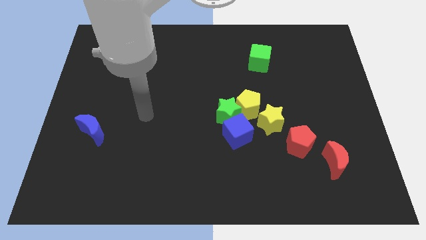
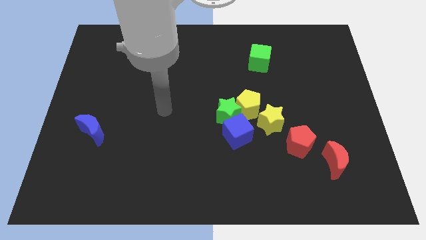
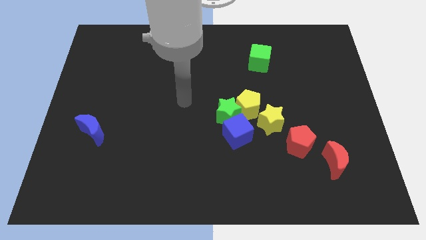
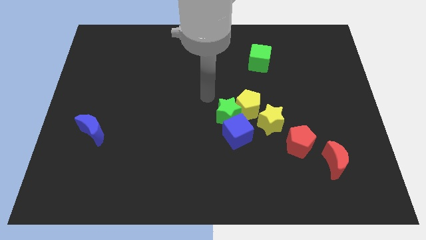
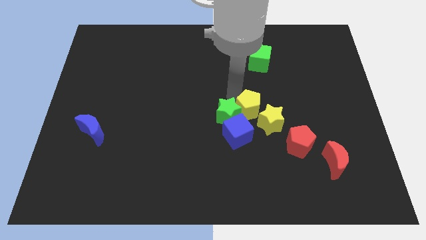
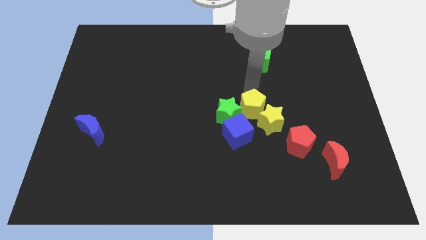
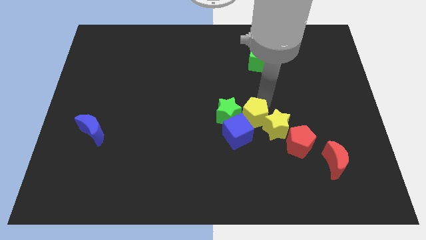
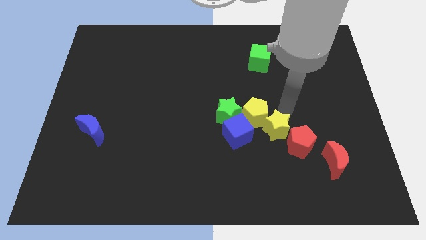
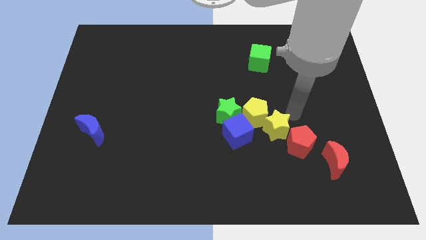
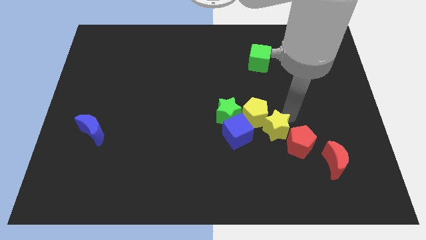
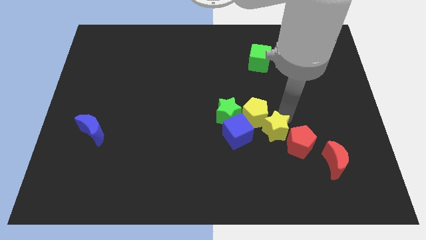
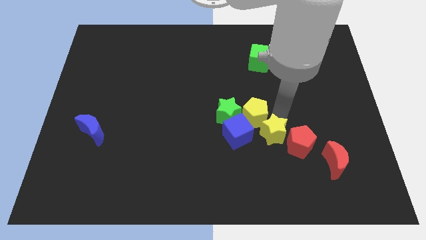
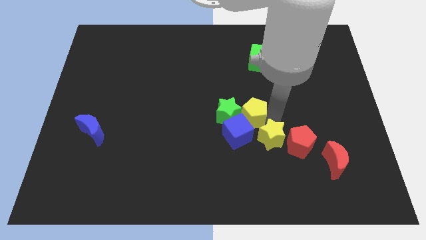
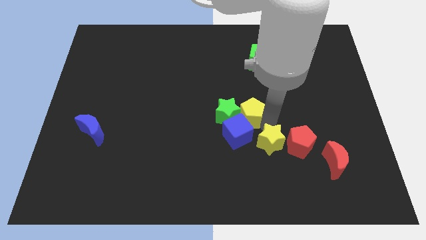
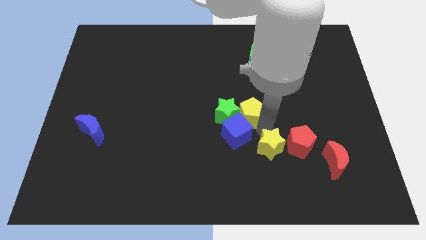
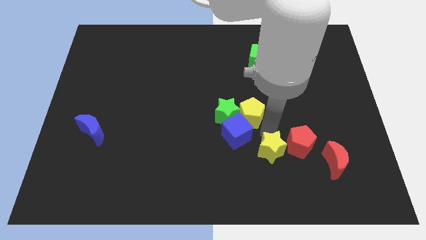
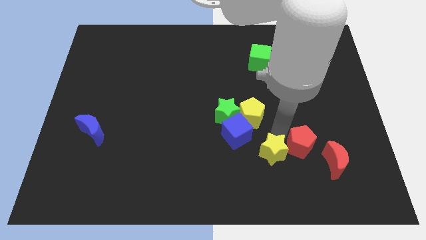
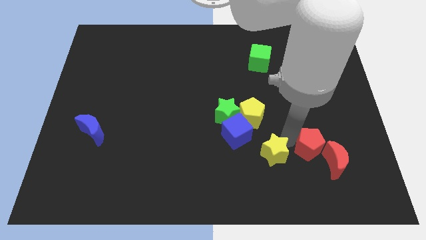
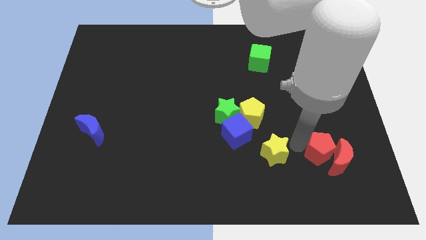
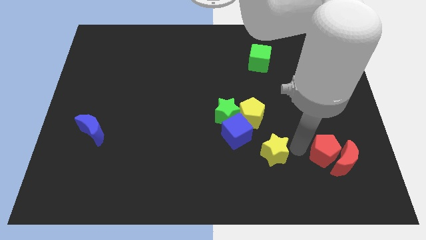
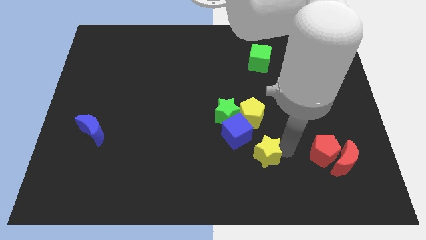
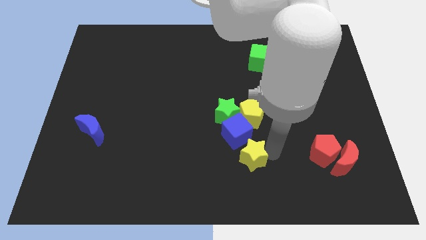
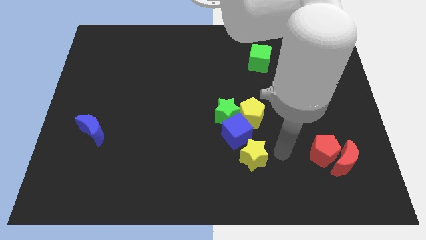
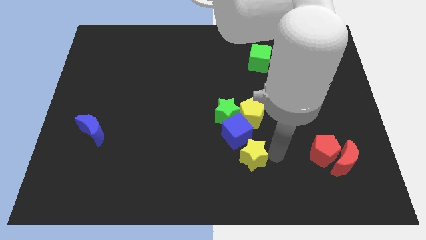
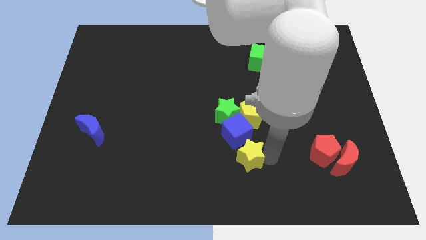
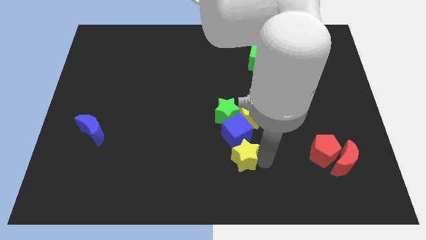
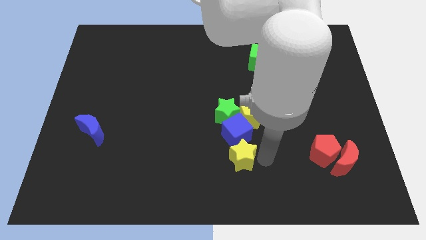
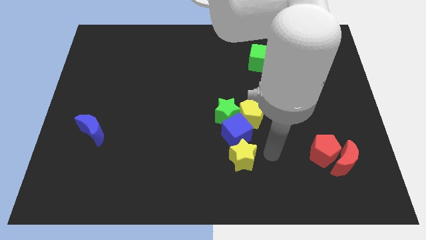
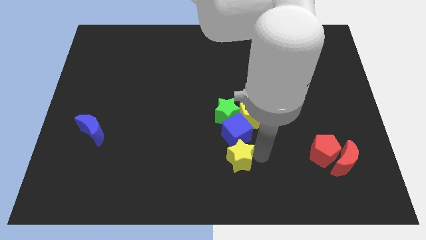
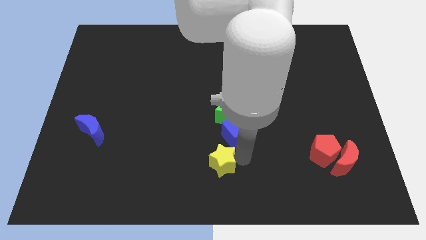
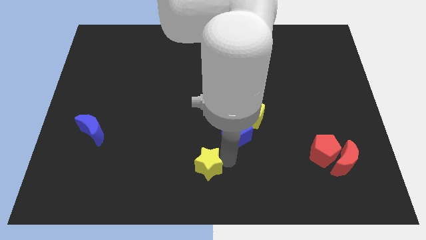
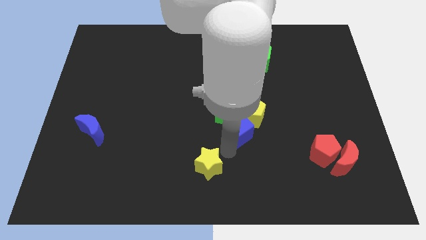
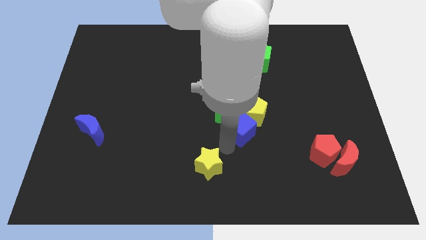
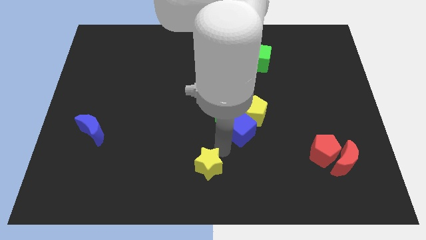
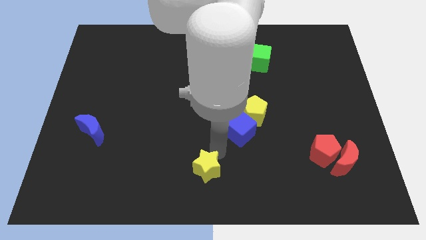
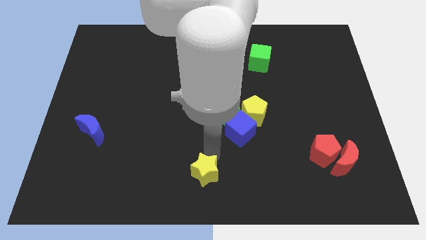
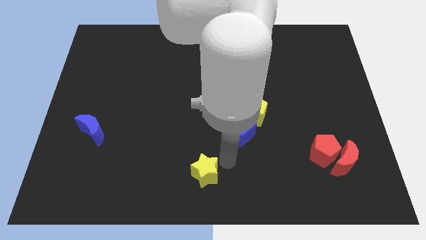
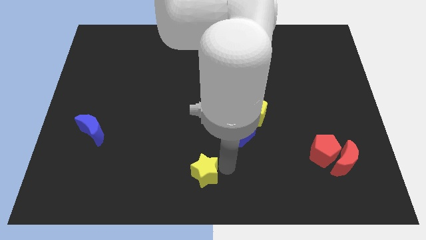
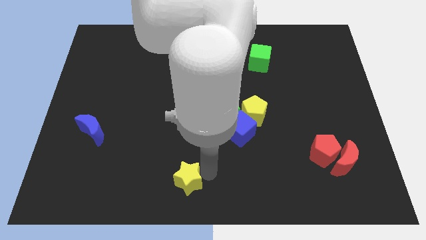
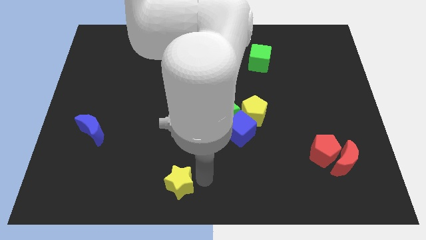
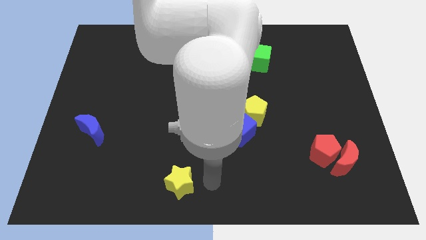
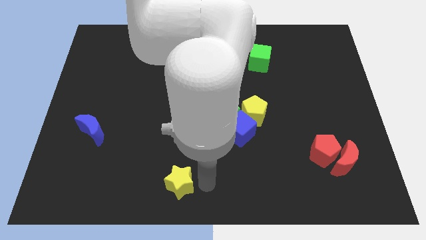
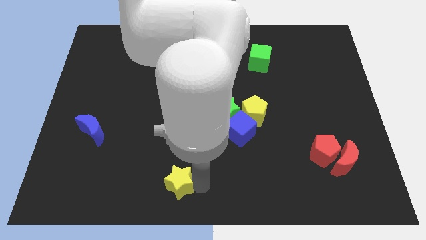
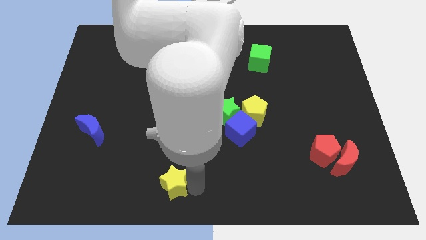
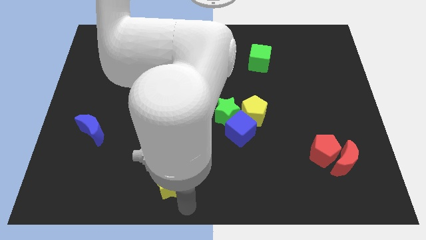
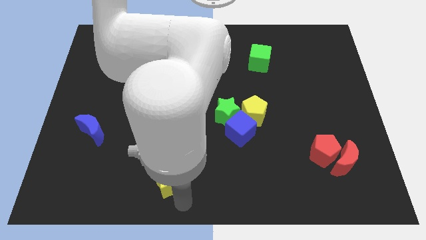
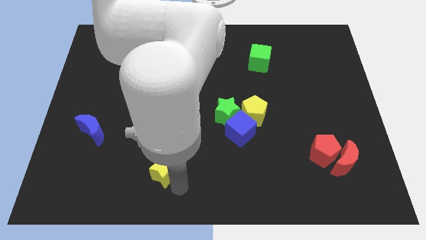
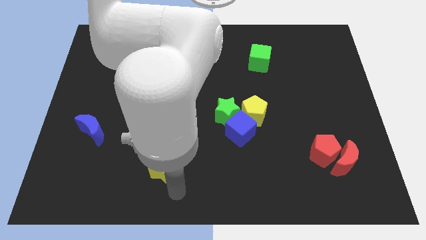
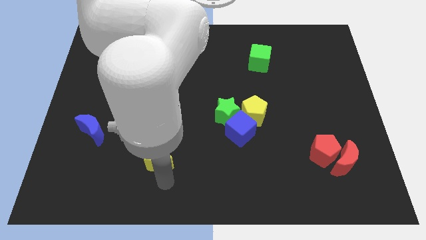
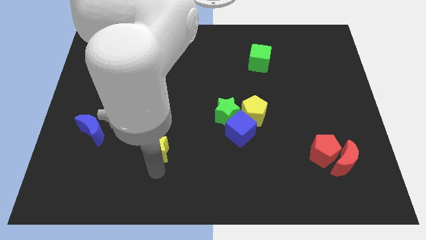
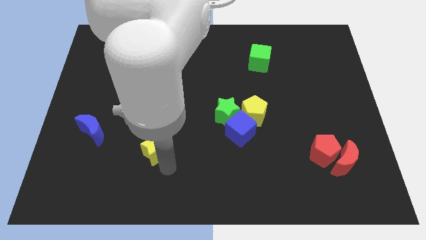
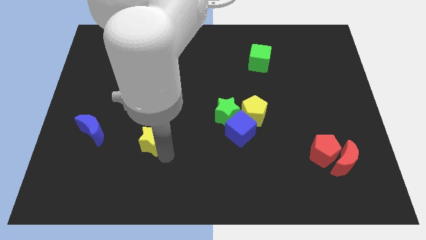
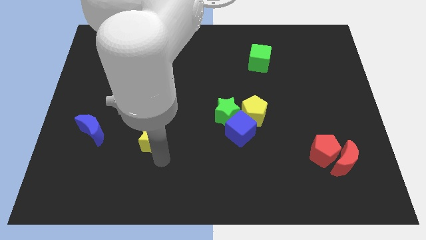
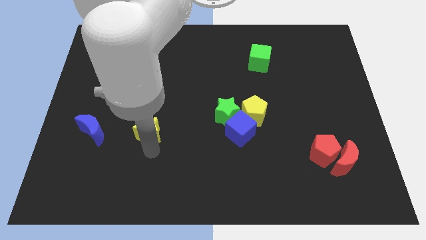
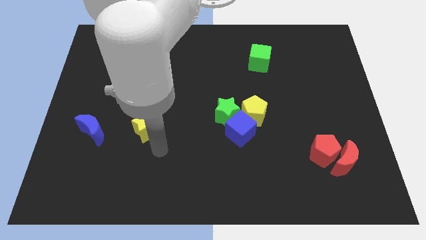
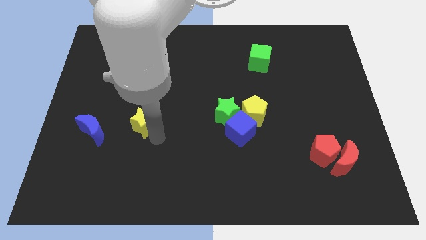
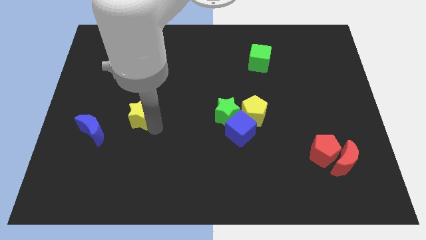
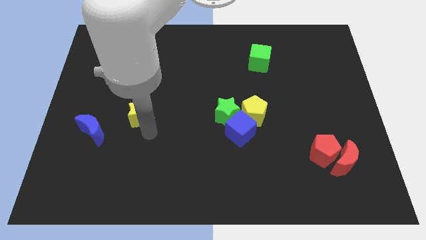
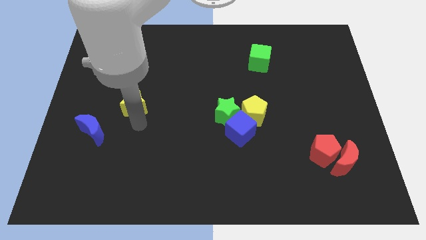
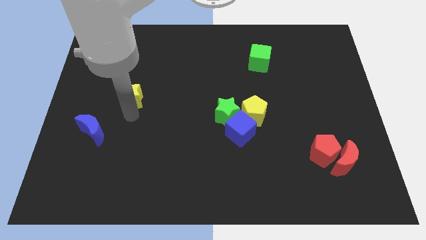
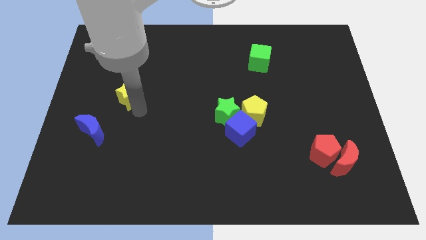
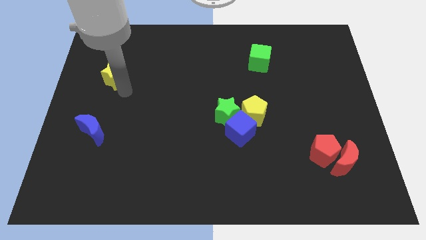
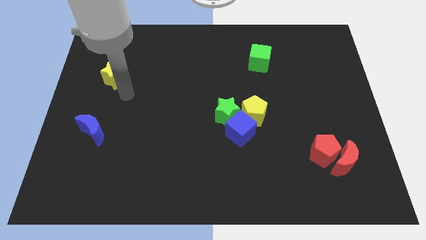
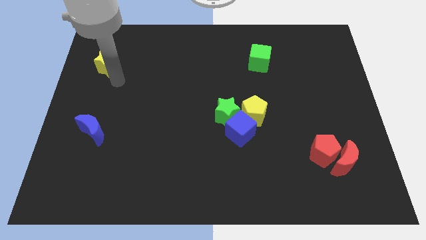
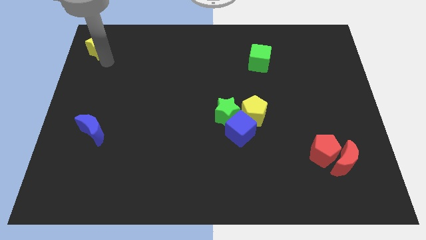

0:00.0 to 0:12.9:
put the yellow star to the top left corner

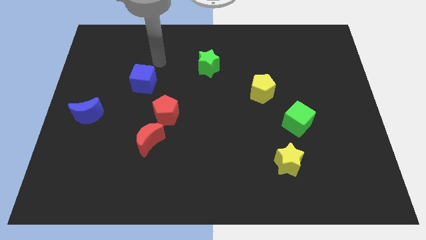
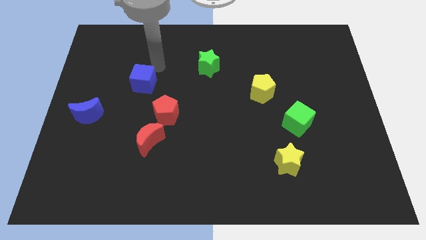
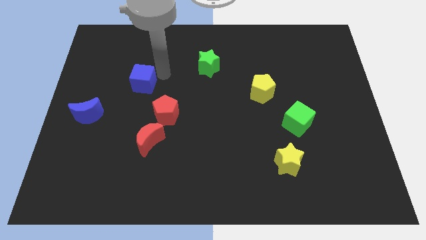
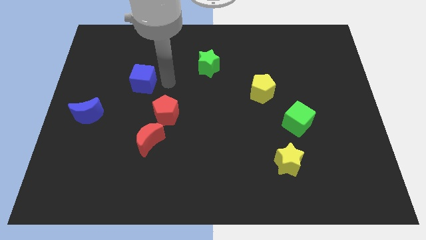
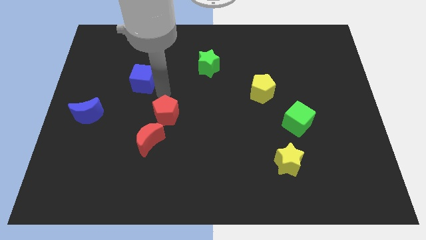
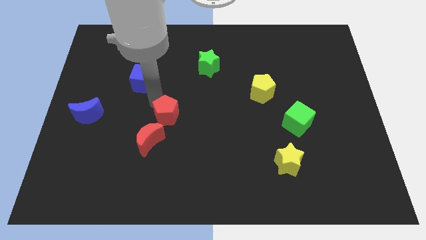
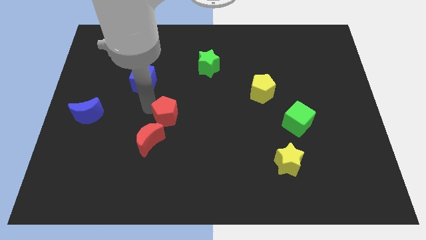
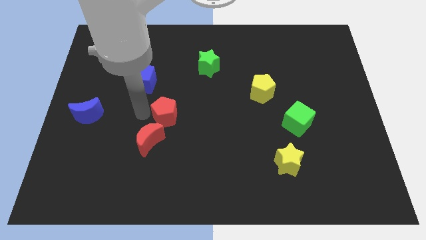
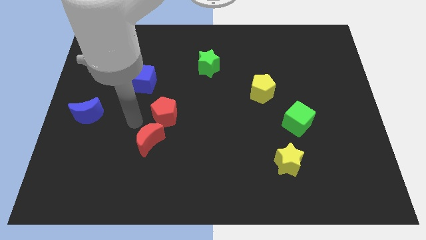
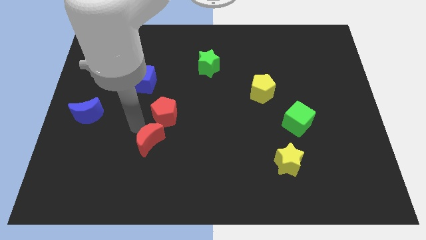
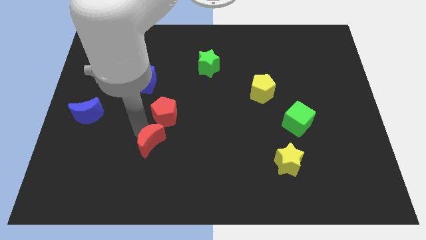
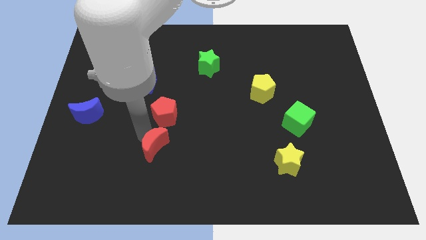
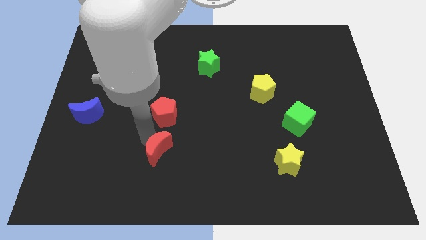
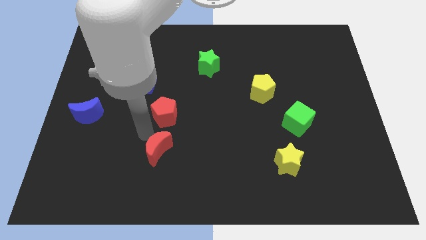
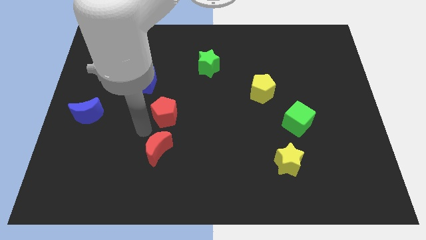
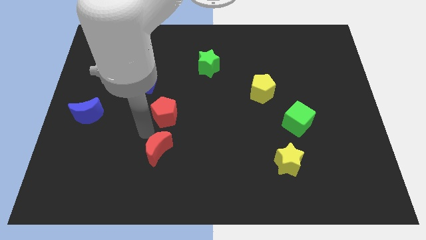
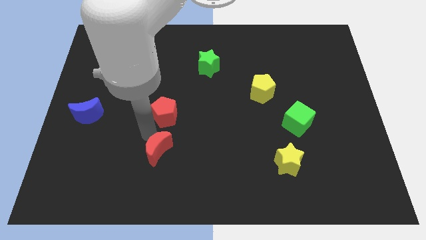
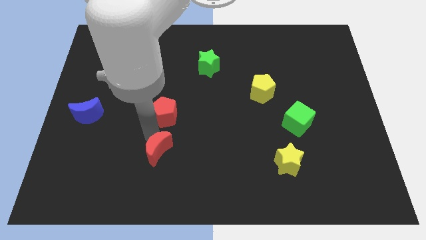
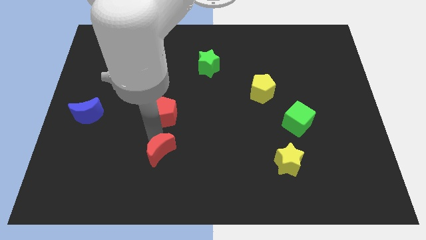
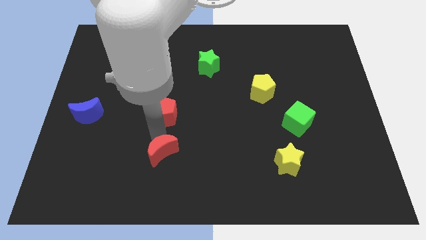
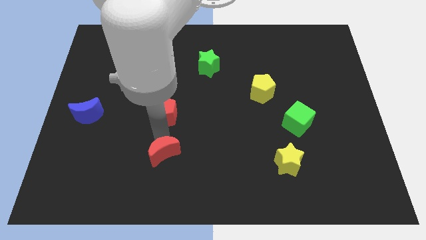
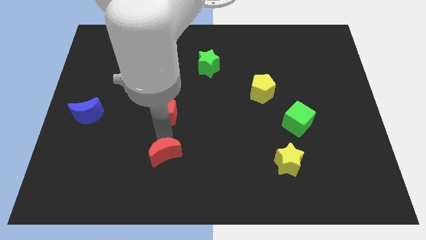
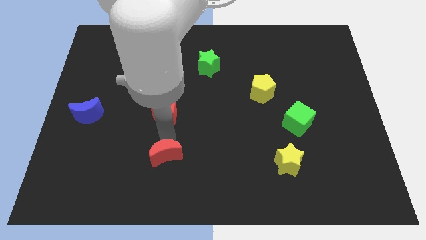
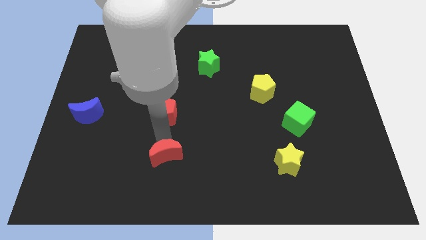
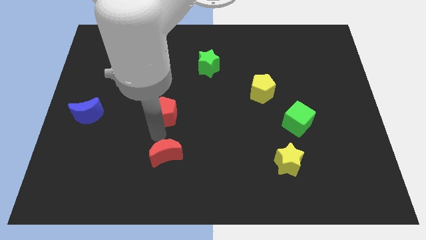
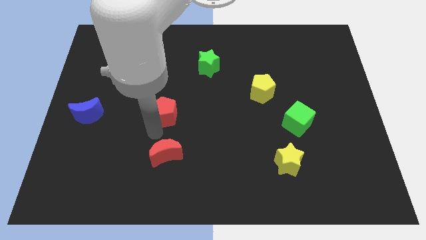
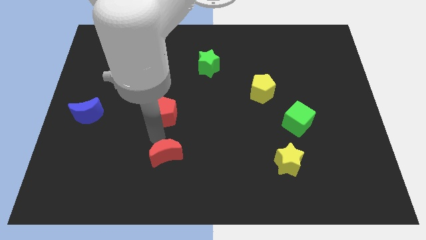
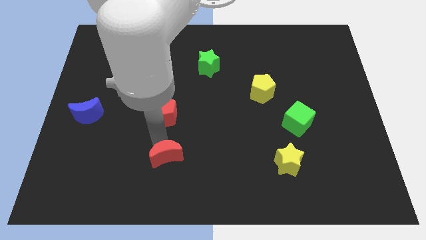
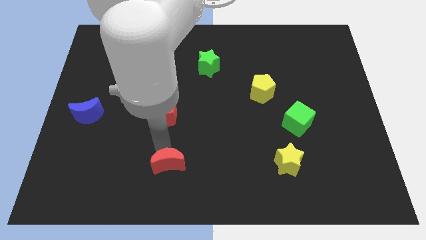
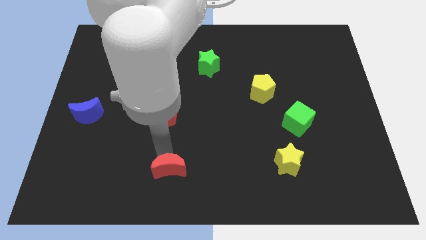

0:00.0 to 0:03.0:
slide the red moon to the bottom side
